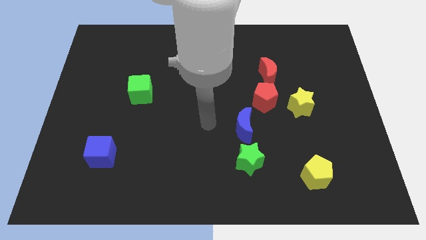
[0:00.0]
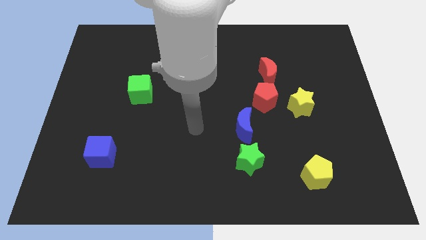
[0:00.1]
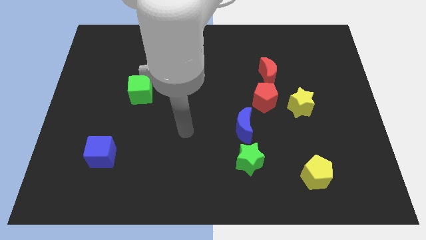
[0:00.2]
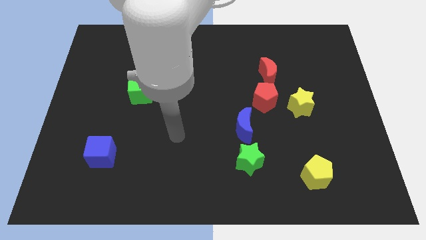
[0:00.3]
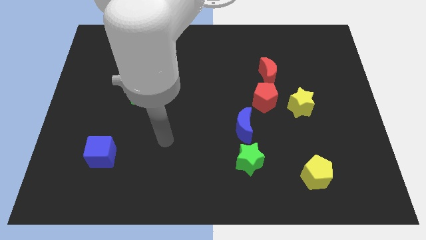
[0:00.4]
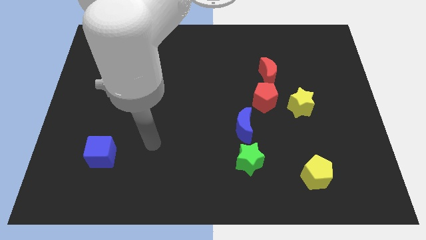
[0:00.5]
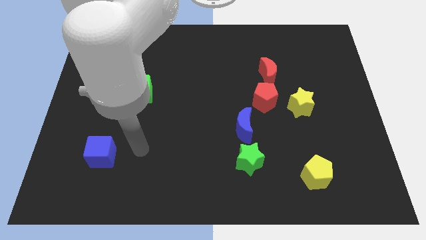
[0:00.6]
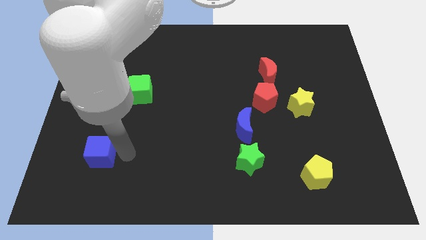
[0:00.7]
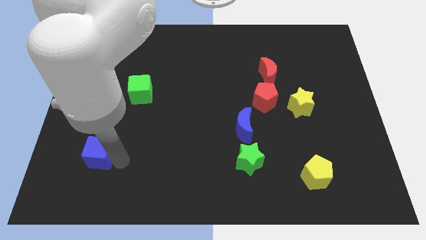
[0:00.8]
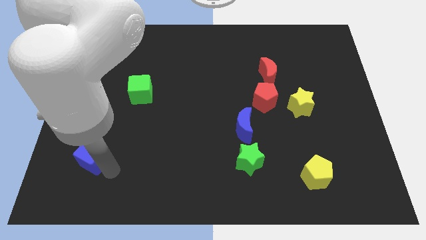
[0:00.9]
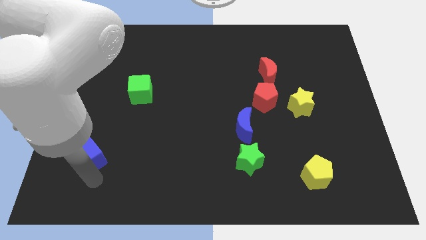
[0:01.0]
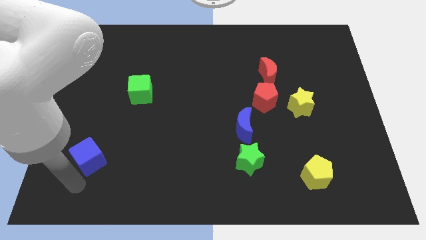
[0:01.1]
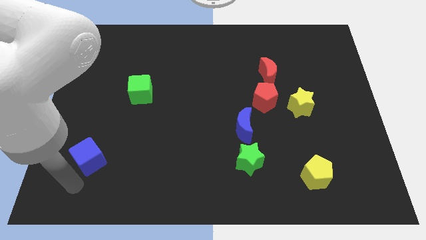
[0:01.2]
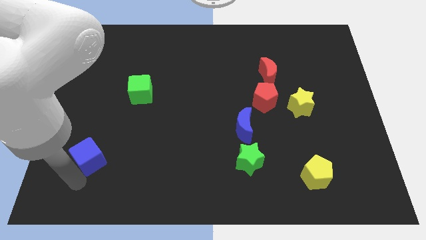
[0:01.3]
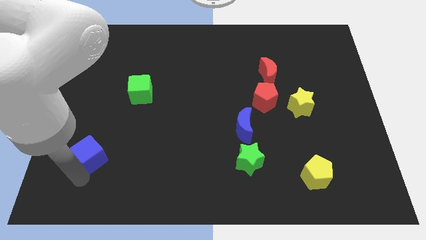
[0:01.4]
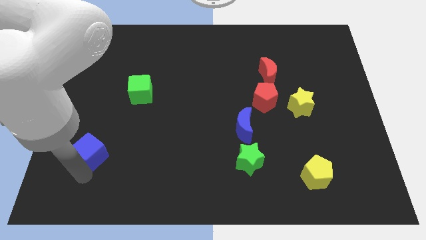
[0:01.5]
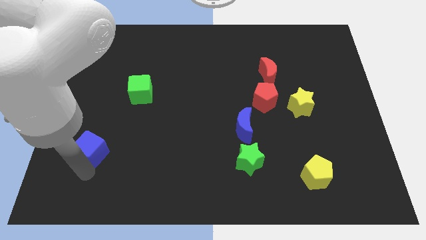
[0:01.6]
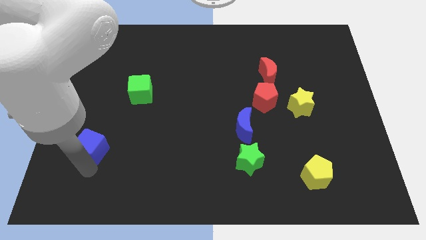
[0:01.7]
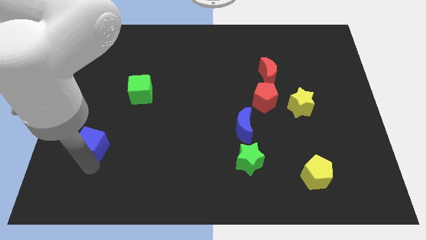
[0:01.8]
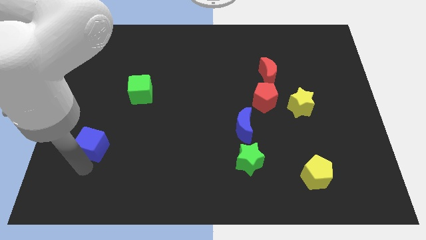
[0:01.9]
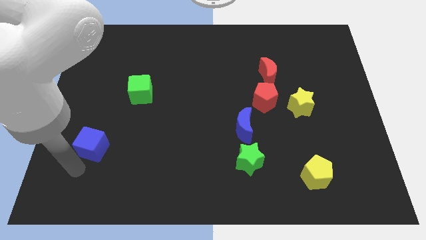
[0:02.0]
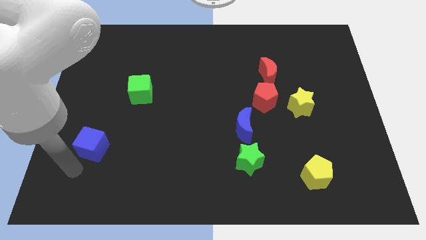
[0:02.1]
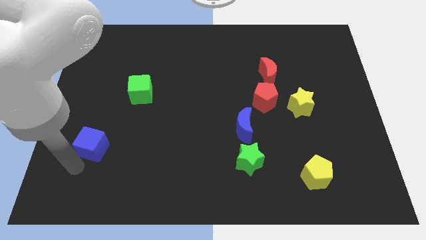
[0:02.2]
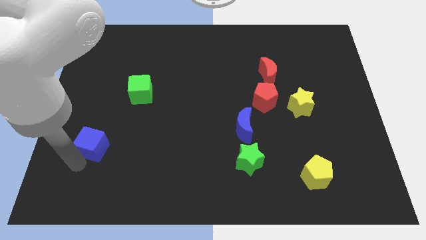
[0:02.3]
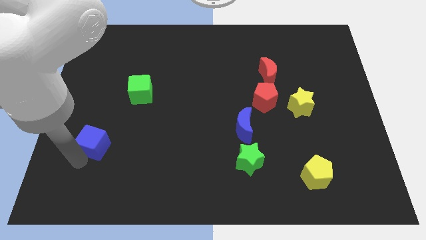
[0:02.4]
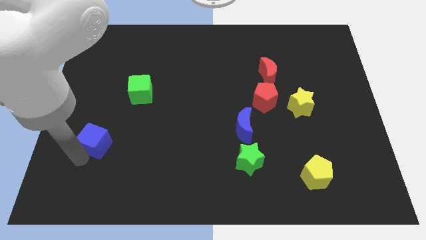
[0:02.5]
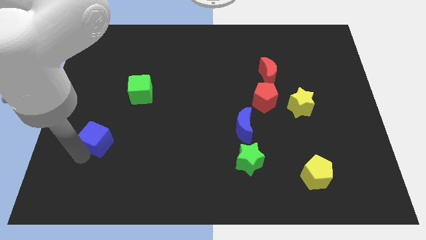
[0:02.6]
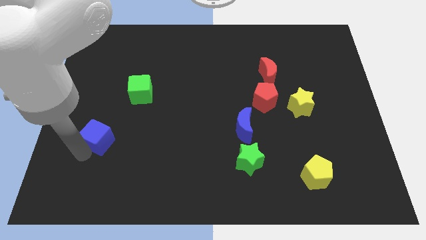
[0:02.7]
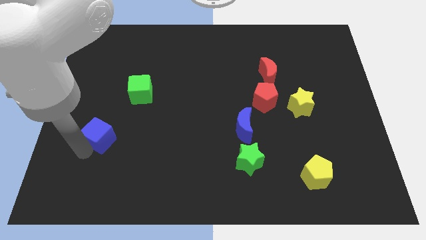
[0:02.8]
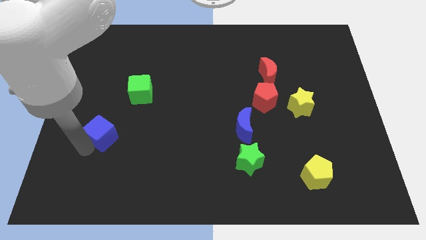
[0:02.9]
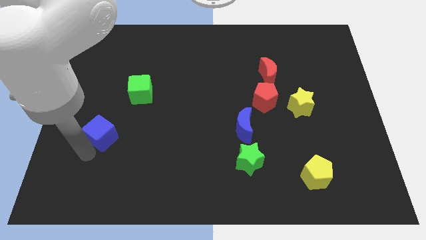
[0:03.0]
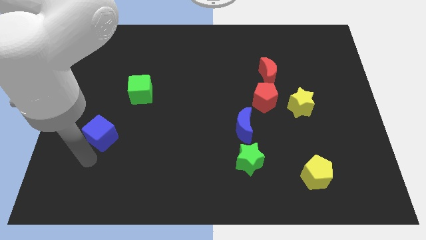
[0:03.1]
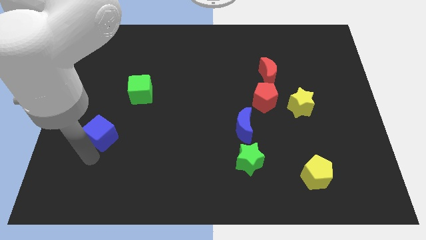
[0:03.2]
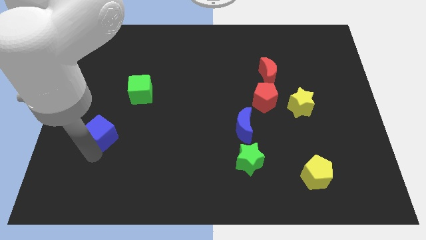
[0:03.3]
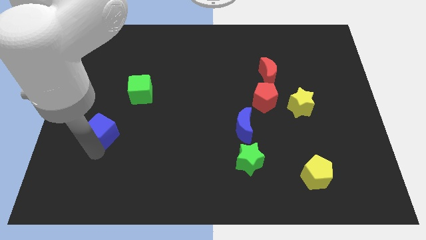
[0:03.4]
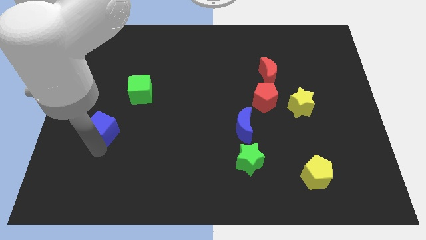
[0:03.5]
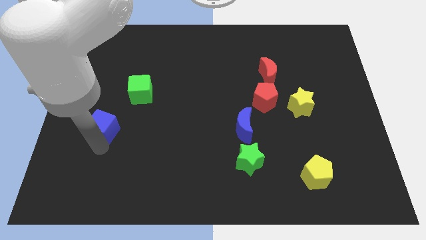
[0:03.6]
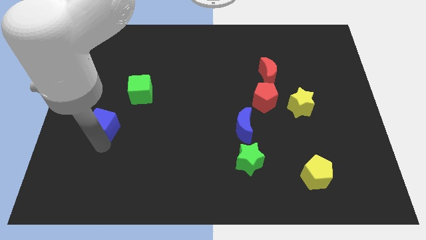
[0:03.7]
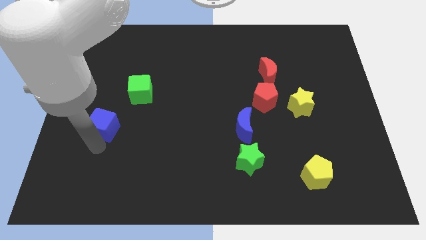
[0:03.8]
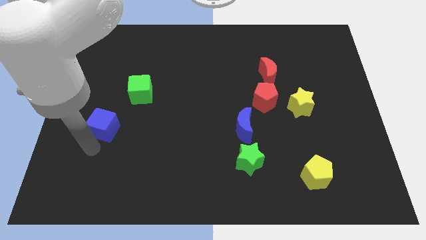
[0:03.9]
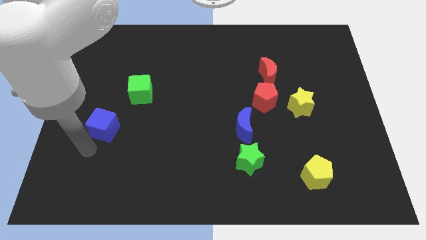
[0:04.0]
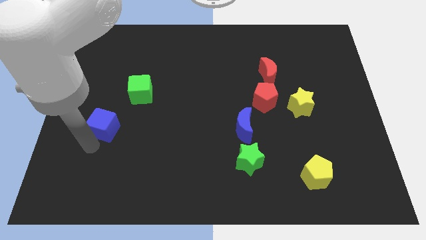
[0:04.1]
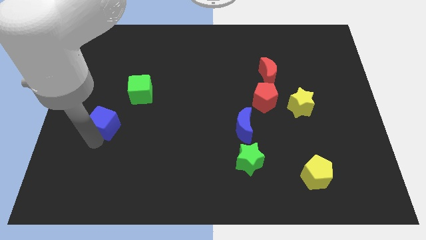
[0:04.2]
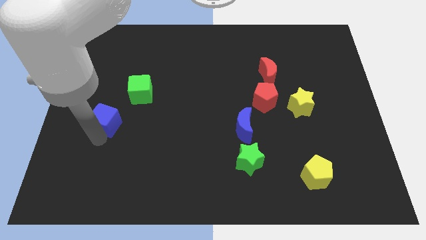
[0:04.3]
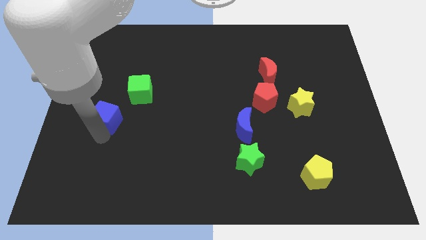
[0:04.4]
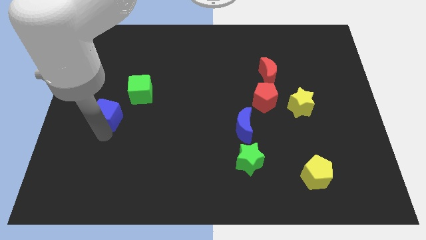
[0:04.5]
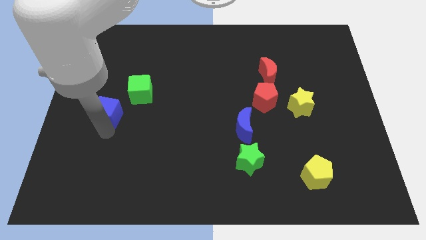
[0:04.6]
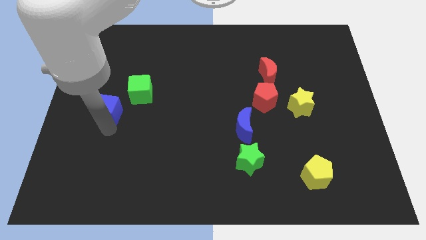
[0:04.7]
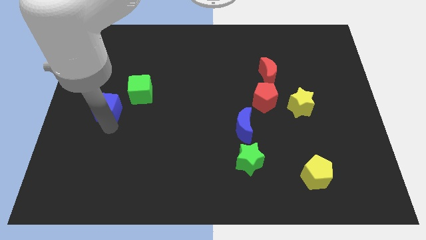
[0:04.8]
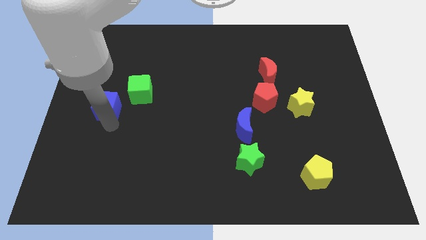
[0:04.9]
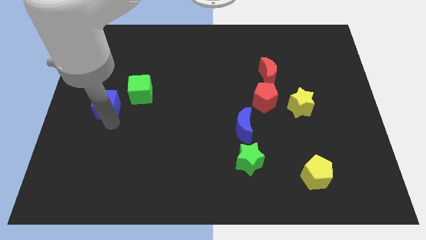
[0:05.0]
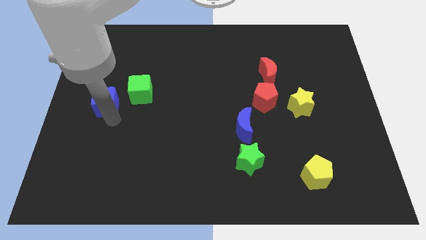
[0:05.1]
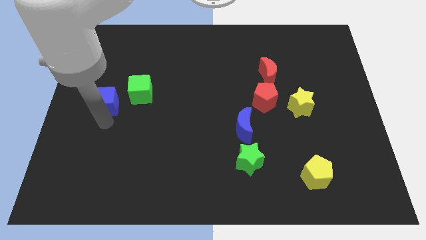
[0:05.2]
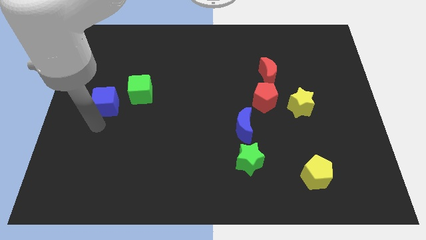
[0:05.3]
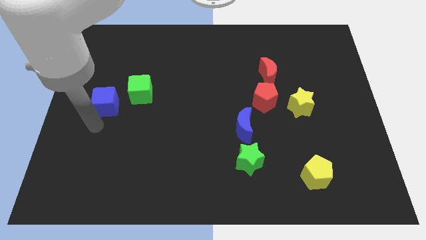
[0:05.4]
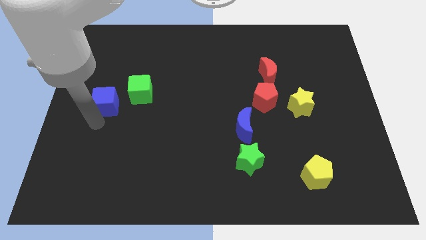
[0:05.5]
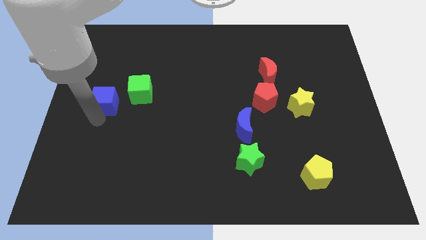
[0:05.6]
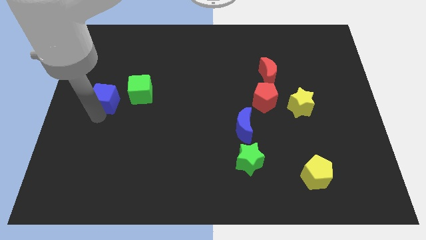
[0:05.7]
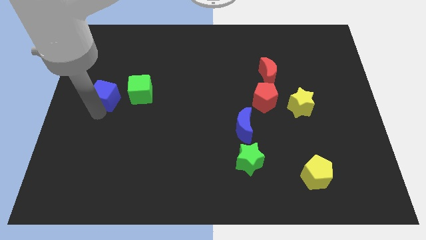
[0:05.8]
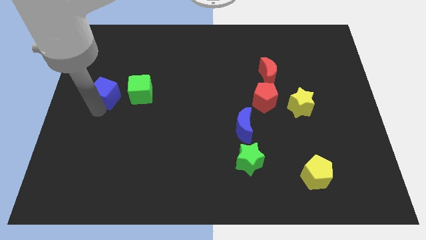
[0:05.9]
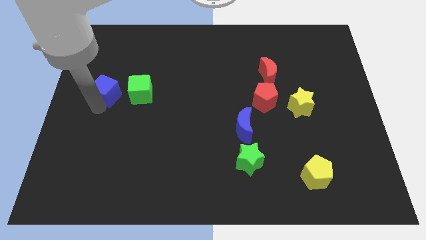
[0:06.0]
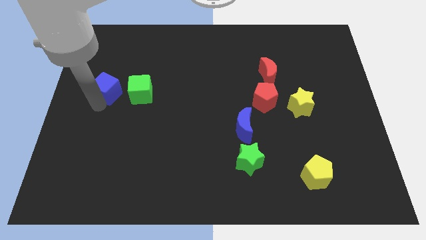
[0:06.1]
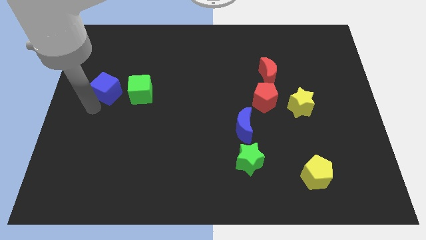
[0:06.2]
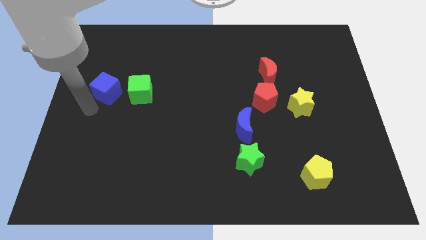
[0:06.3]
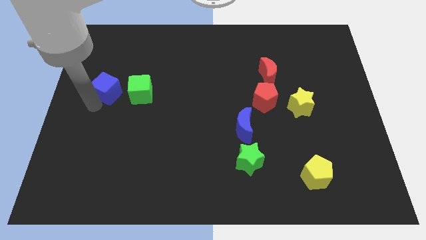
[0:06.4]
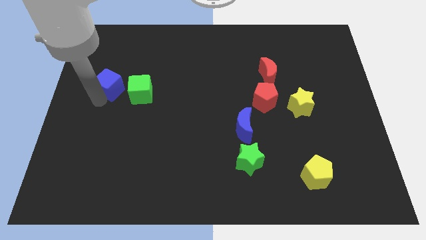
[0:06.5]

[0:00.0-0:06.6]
move the blue cube diagonally up and to the left of the green cube
